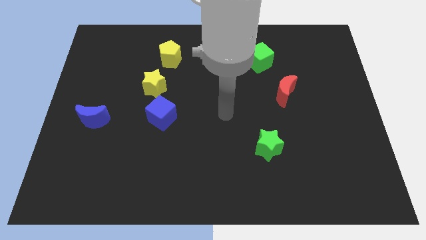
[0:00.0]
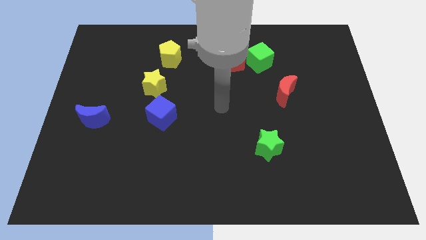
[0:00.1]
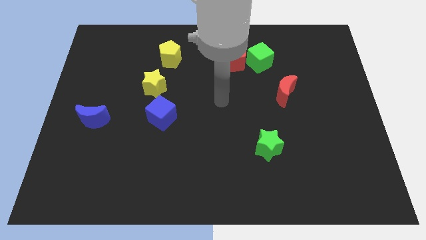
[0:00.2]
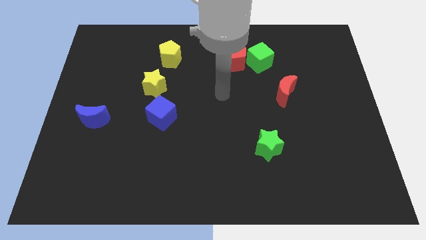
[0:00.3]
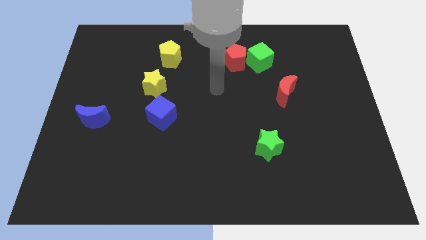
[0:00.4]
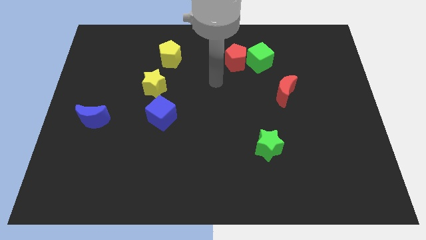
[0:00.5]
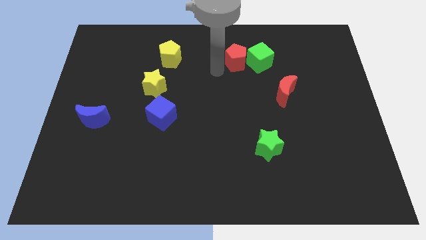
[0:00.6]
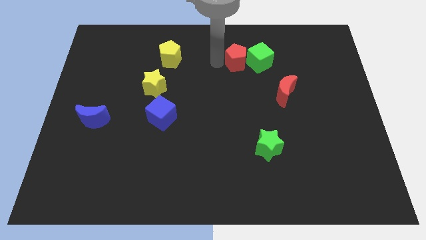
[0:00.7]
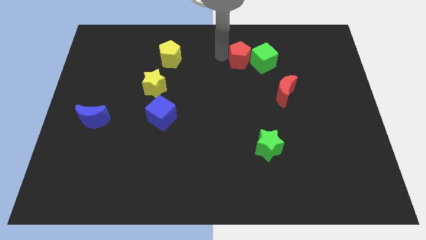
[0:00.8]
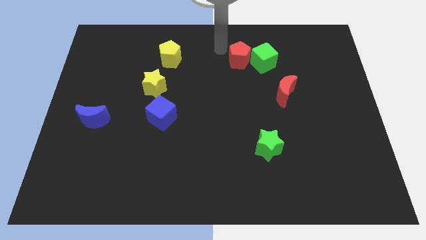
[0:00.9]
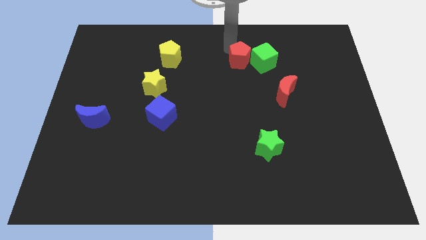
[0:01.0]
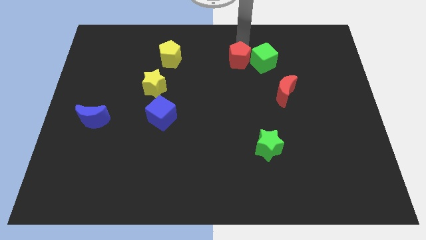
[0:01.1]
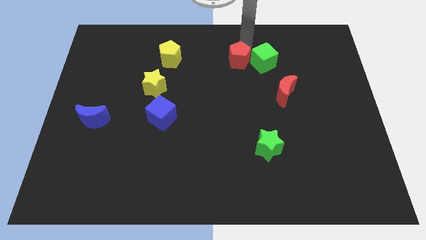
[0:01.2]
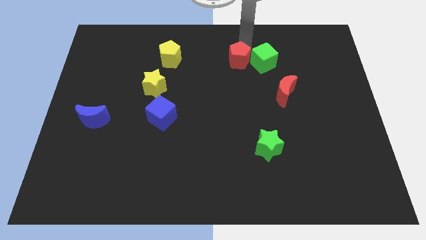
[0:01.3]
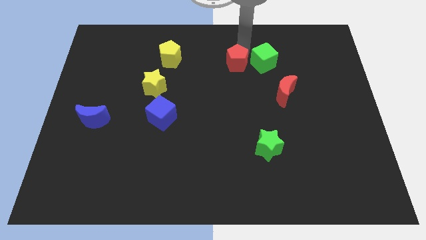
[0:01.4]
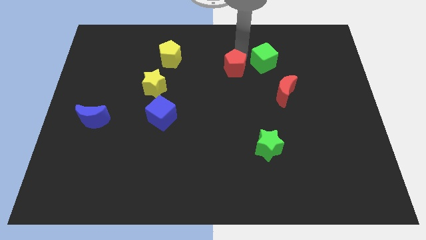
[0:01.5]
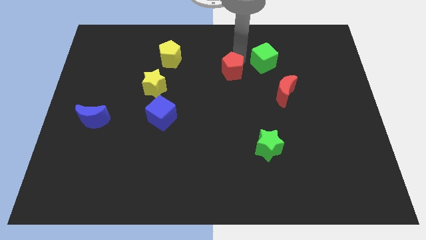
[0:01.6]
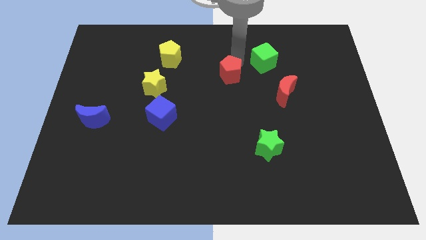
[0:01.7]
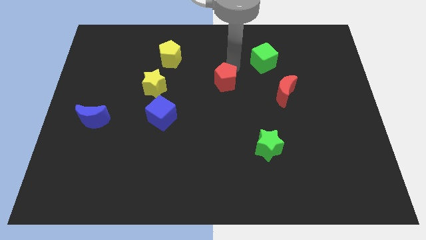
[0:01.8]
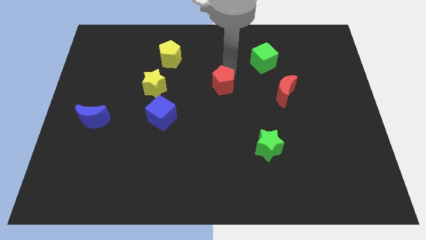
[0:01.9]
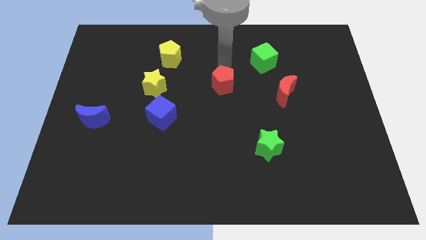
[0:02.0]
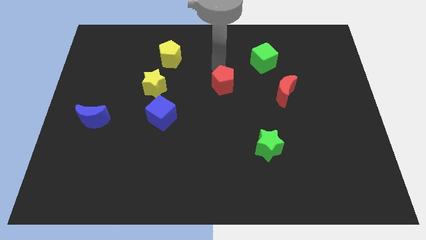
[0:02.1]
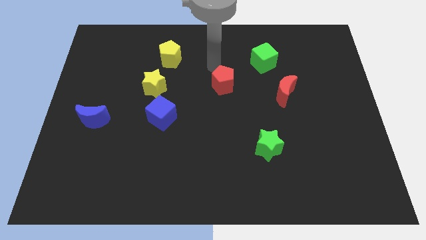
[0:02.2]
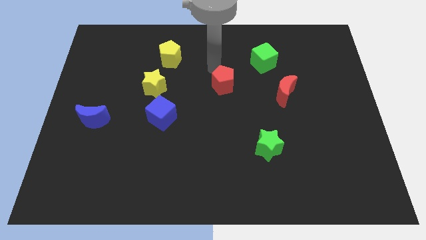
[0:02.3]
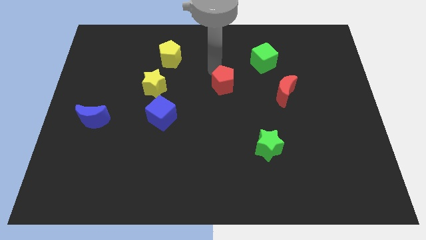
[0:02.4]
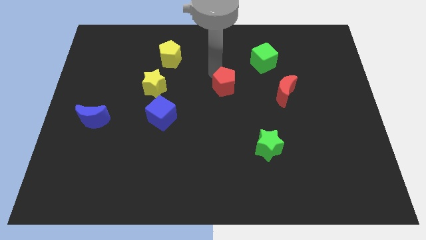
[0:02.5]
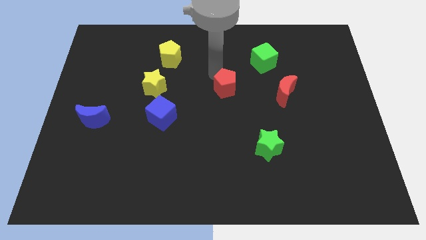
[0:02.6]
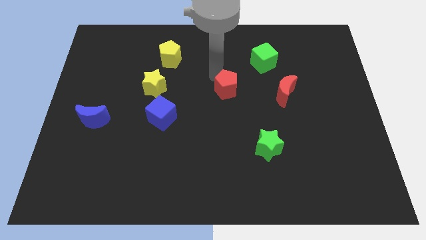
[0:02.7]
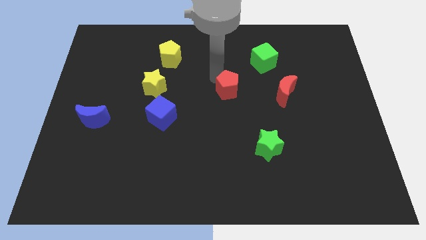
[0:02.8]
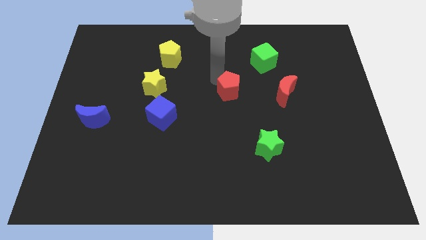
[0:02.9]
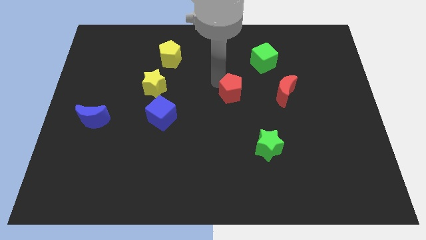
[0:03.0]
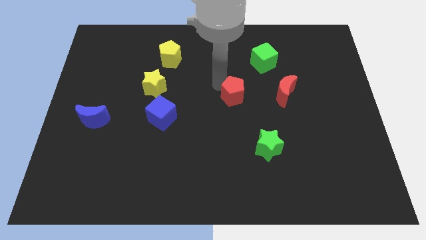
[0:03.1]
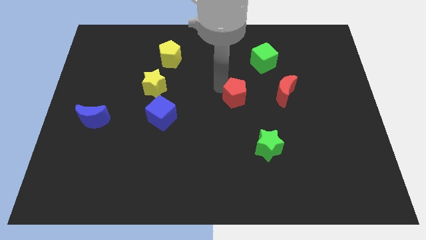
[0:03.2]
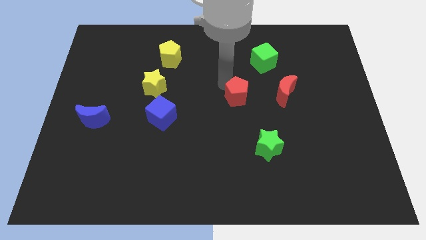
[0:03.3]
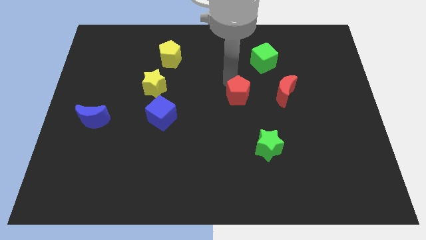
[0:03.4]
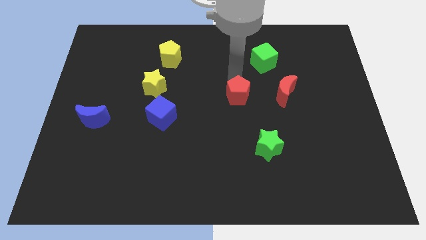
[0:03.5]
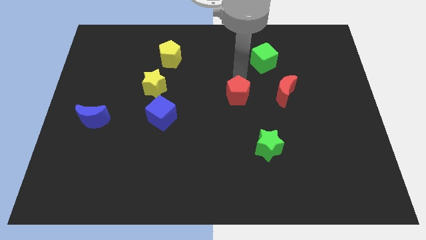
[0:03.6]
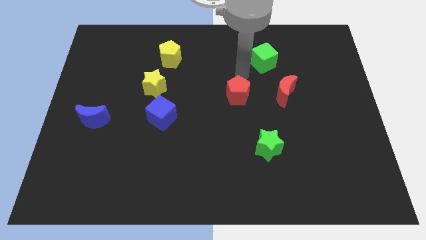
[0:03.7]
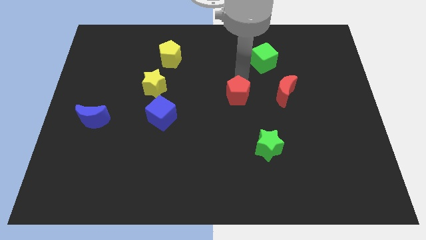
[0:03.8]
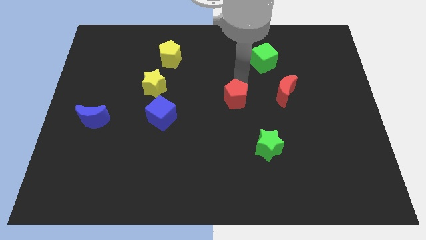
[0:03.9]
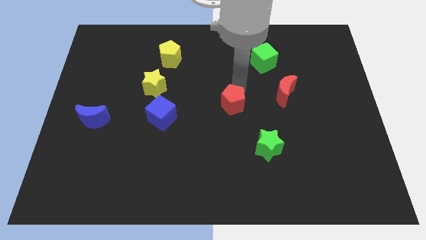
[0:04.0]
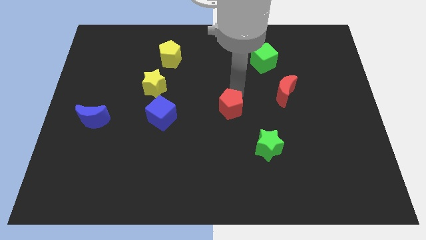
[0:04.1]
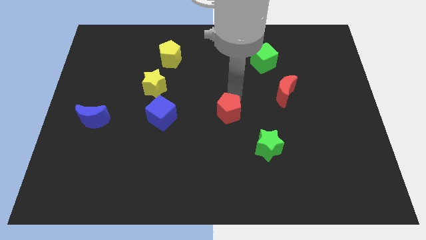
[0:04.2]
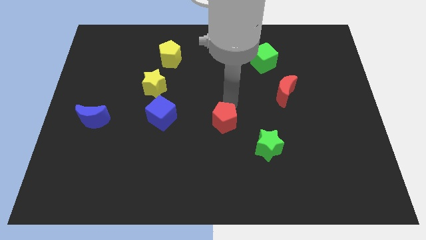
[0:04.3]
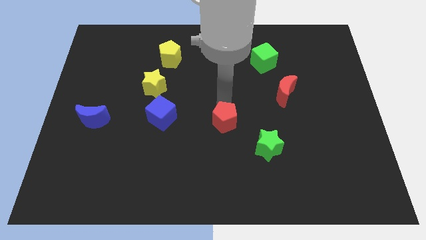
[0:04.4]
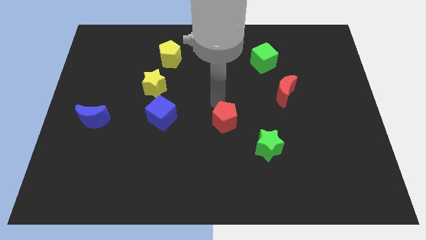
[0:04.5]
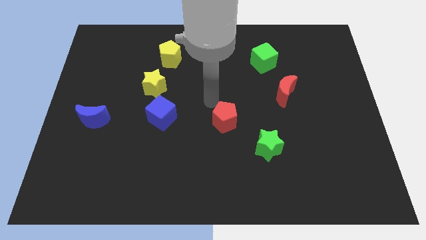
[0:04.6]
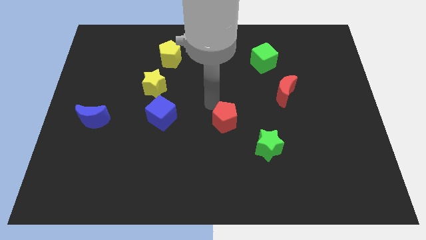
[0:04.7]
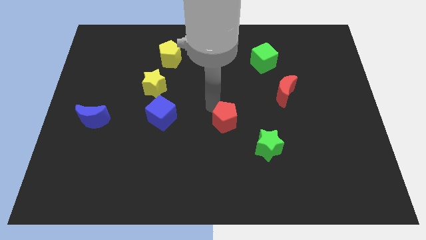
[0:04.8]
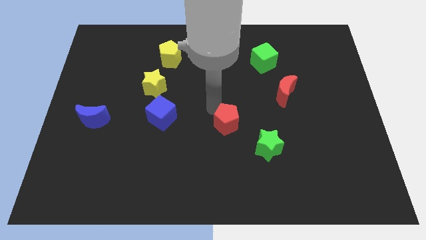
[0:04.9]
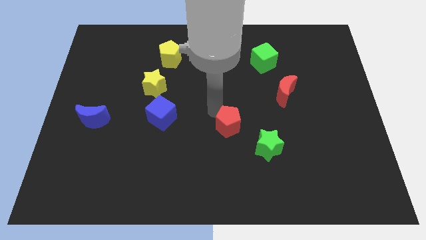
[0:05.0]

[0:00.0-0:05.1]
push the red pentagon downwards

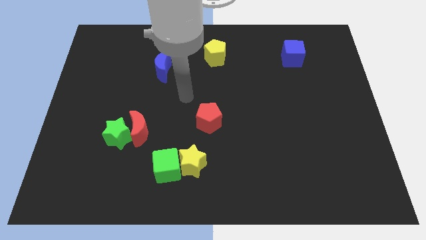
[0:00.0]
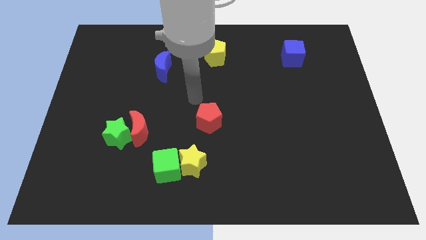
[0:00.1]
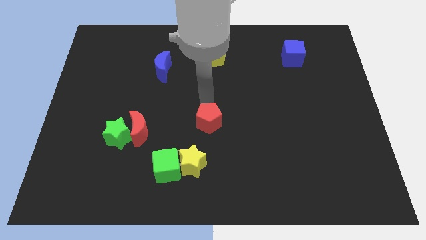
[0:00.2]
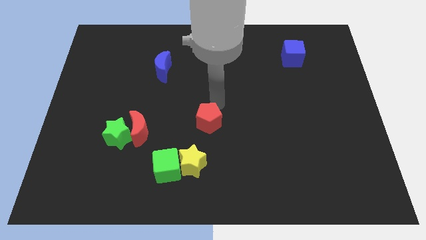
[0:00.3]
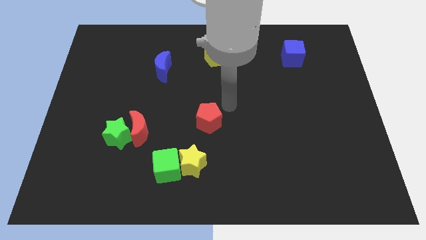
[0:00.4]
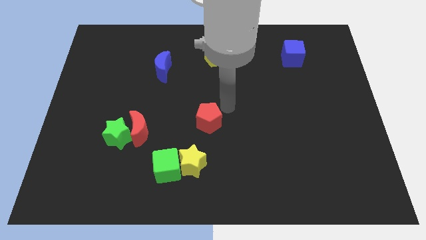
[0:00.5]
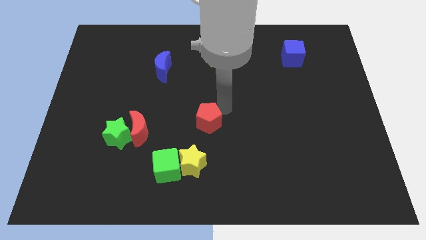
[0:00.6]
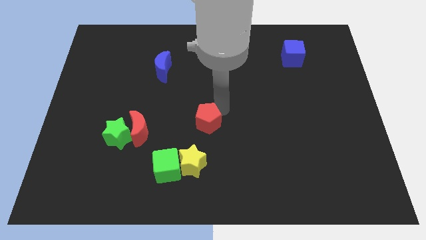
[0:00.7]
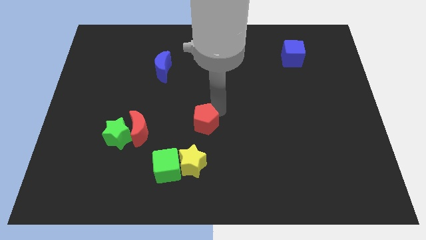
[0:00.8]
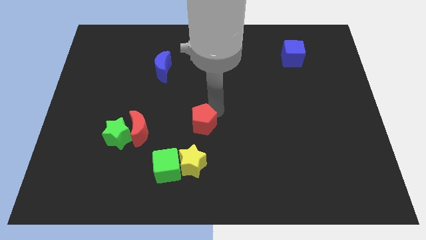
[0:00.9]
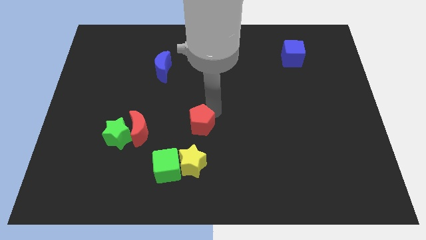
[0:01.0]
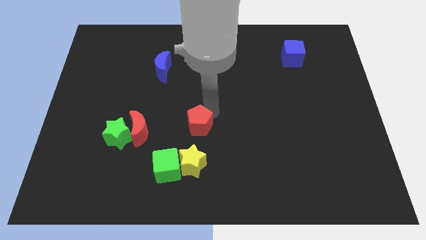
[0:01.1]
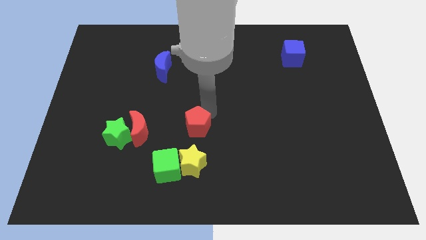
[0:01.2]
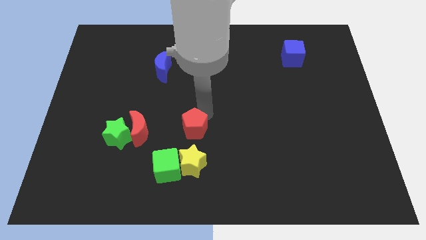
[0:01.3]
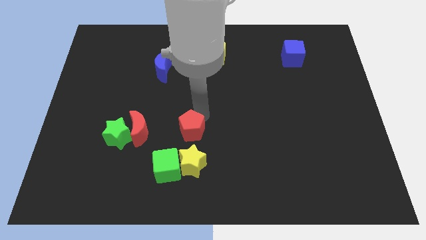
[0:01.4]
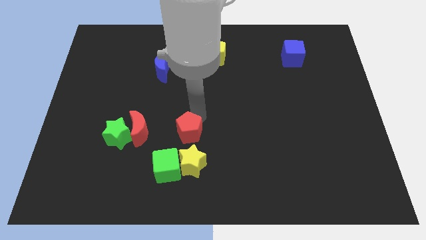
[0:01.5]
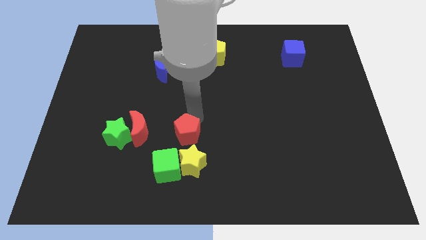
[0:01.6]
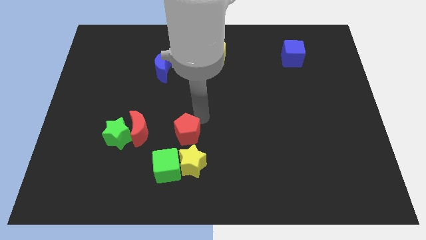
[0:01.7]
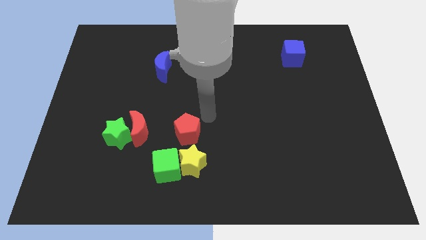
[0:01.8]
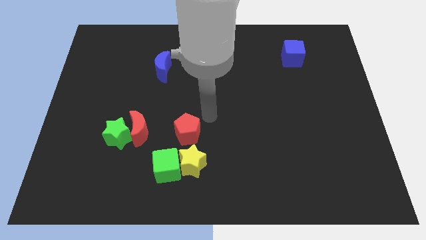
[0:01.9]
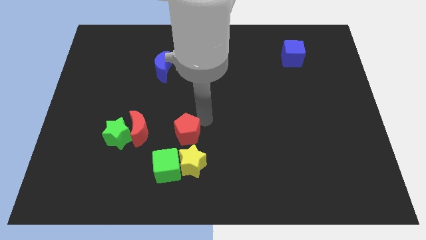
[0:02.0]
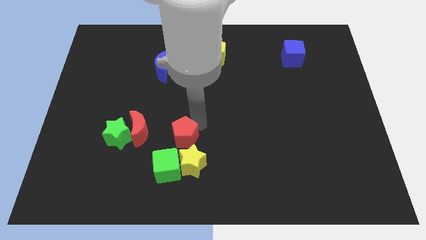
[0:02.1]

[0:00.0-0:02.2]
slide the red pentagon a bit down and left diagonally

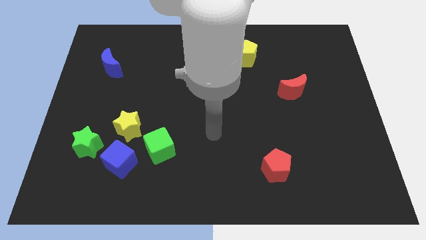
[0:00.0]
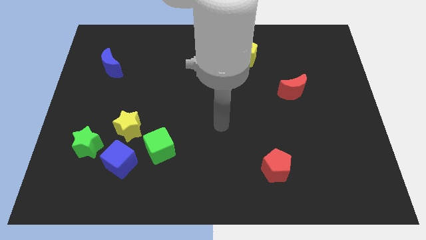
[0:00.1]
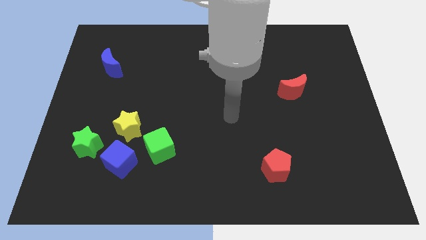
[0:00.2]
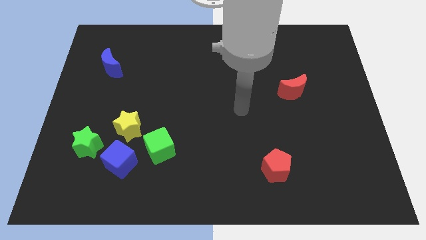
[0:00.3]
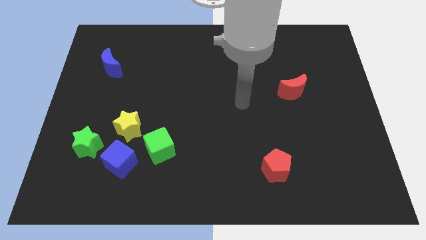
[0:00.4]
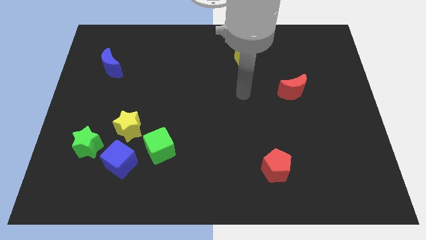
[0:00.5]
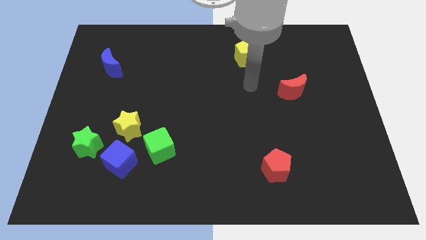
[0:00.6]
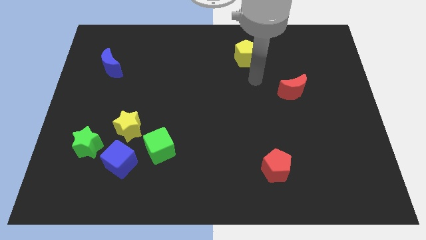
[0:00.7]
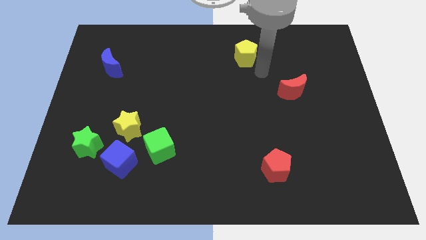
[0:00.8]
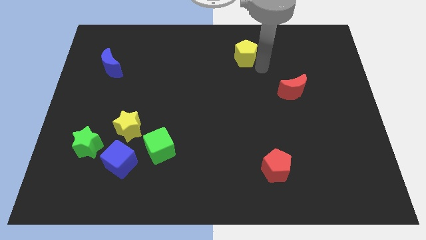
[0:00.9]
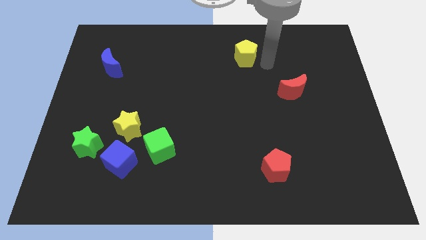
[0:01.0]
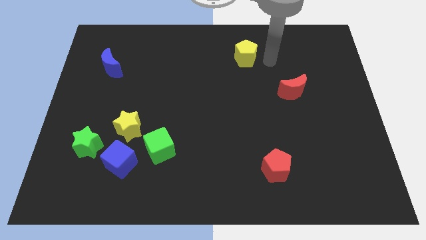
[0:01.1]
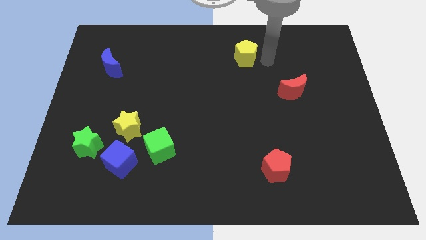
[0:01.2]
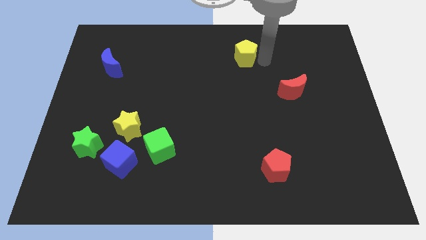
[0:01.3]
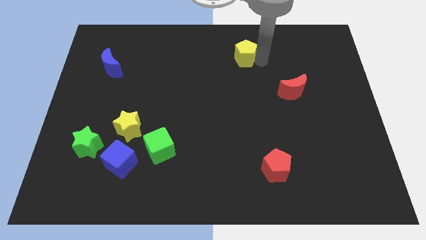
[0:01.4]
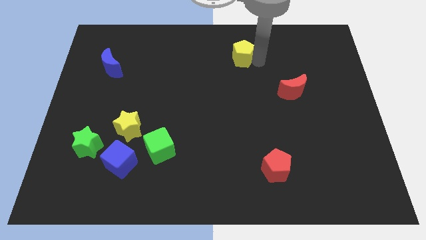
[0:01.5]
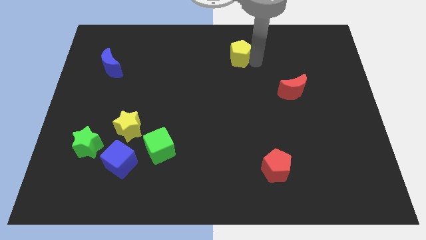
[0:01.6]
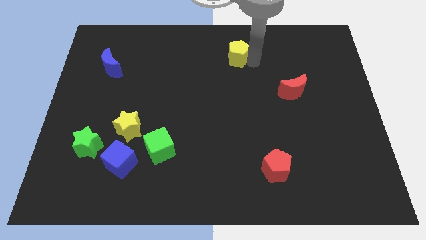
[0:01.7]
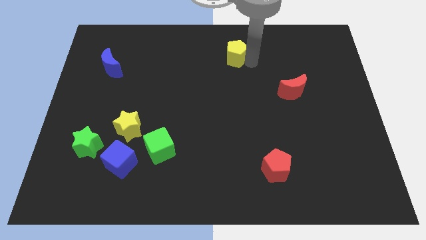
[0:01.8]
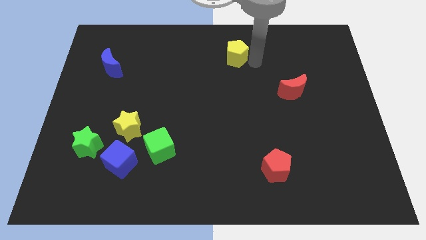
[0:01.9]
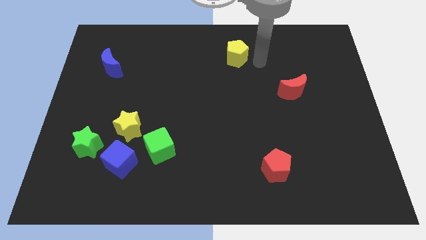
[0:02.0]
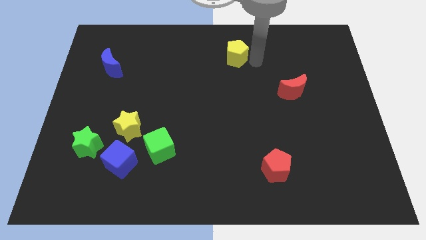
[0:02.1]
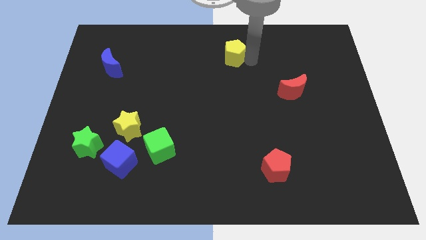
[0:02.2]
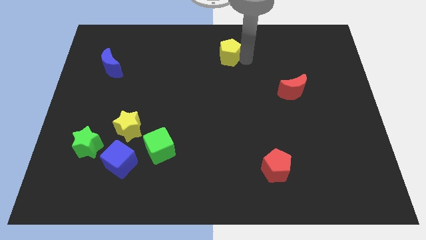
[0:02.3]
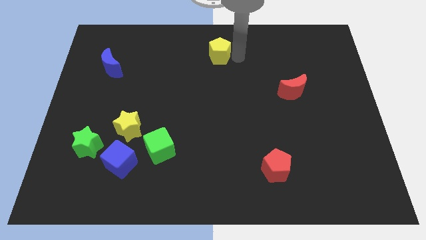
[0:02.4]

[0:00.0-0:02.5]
slide the yellow pentagon to the left somewhat
